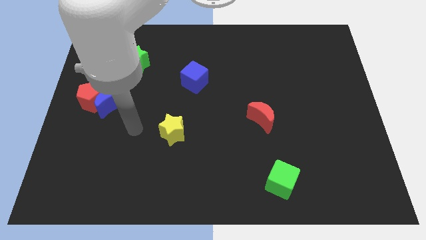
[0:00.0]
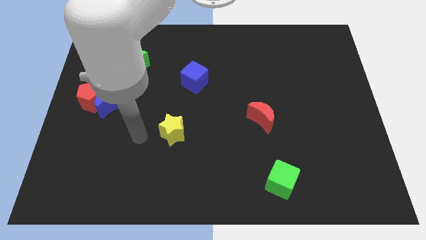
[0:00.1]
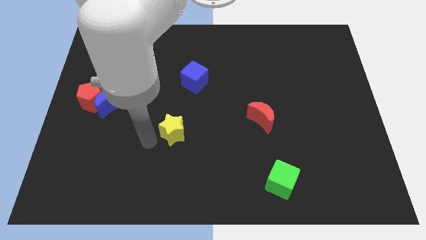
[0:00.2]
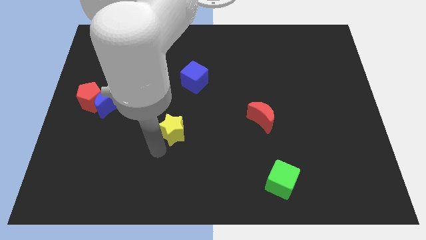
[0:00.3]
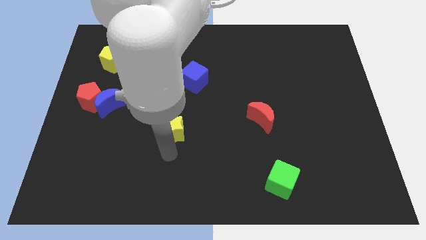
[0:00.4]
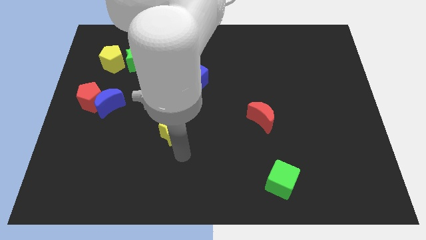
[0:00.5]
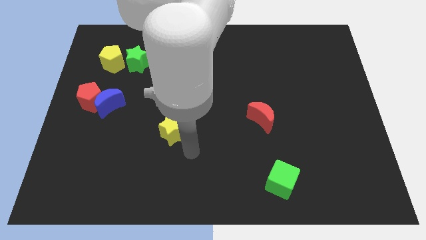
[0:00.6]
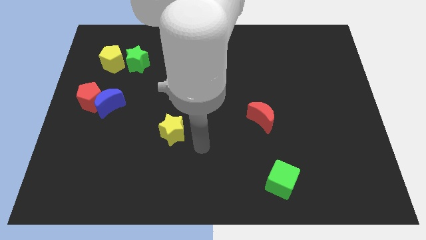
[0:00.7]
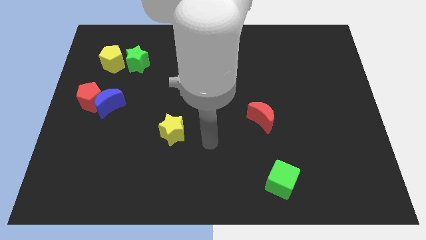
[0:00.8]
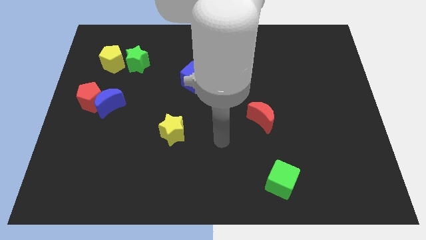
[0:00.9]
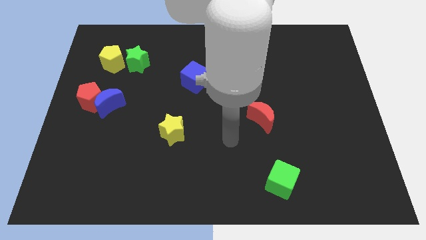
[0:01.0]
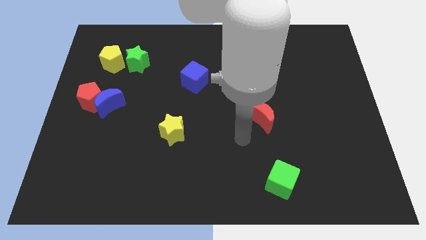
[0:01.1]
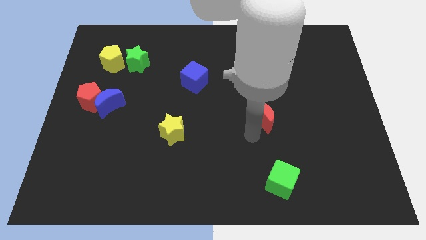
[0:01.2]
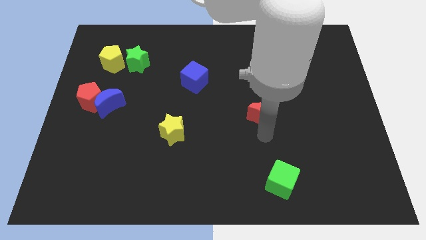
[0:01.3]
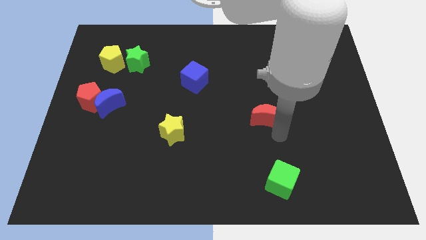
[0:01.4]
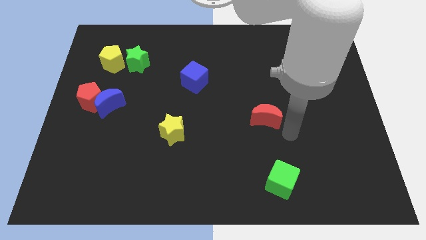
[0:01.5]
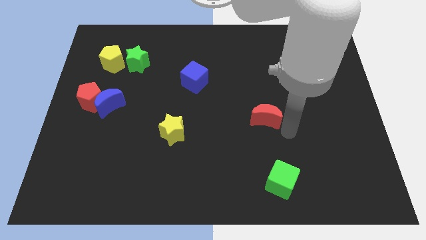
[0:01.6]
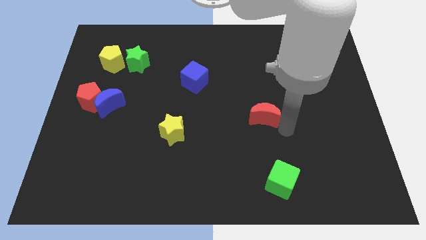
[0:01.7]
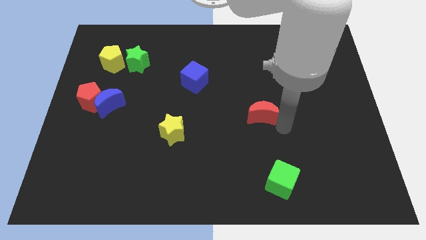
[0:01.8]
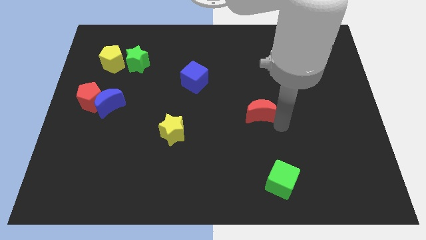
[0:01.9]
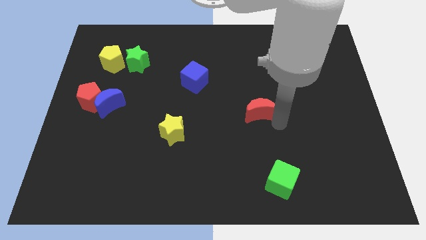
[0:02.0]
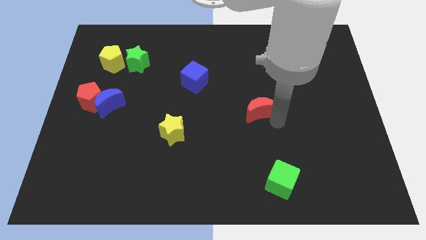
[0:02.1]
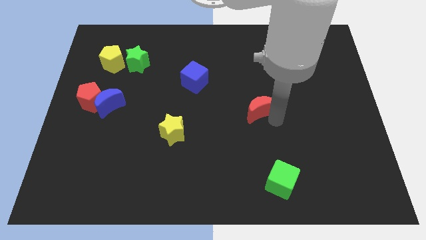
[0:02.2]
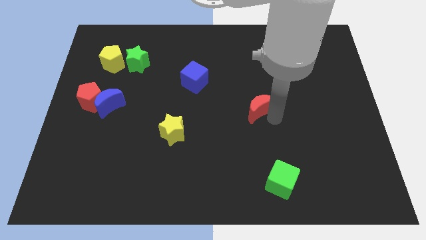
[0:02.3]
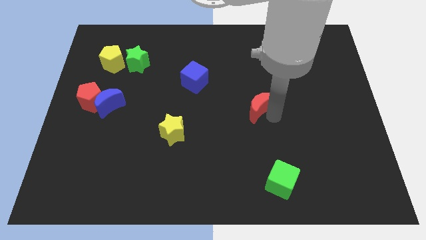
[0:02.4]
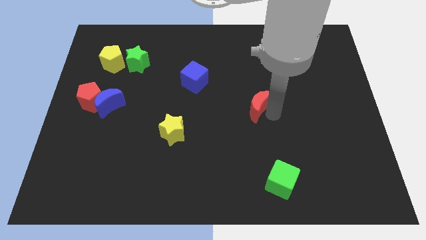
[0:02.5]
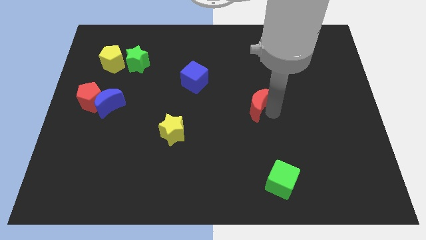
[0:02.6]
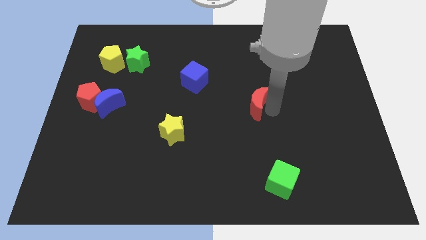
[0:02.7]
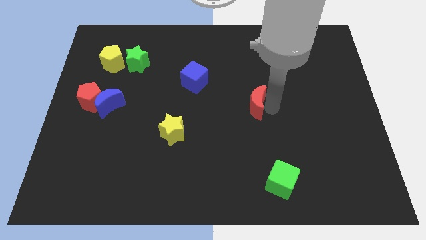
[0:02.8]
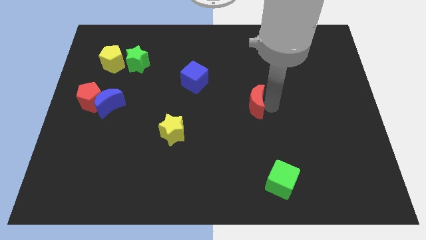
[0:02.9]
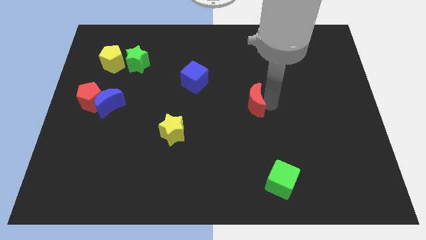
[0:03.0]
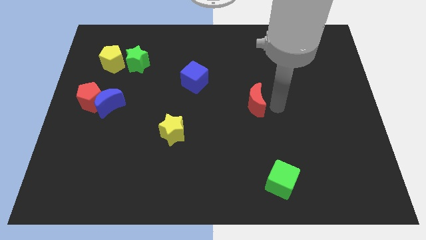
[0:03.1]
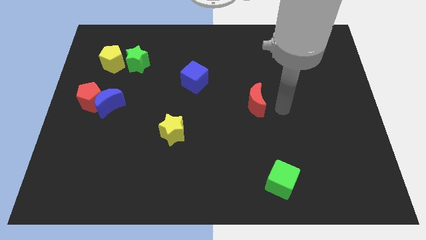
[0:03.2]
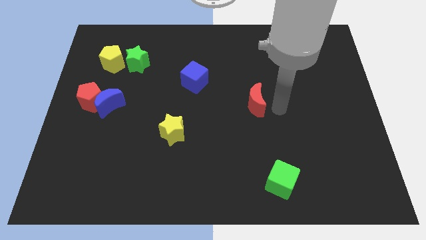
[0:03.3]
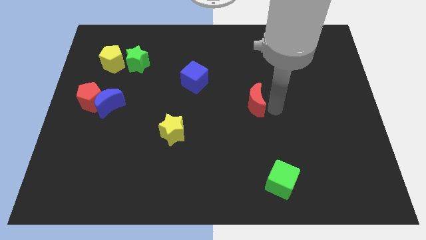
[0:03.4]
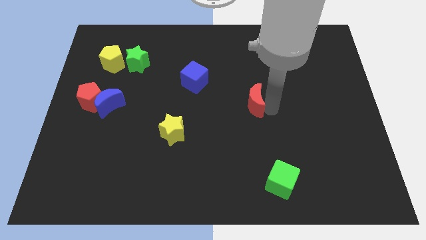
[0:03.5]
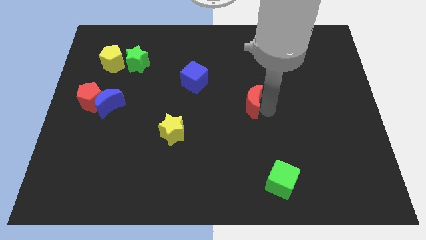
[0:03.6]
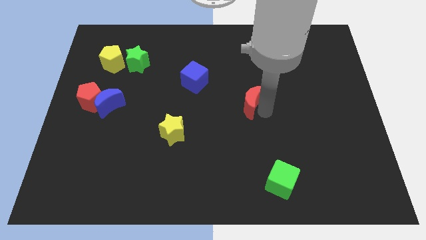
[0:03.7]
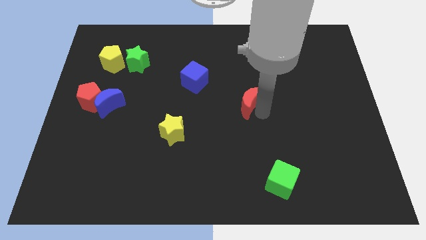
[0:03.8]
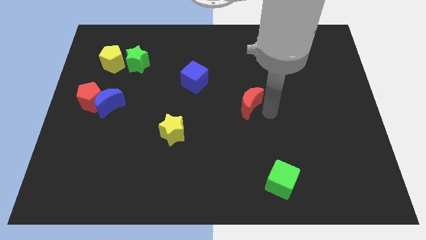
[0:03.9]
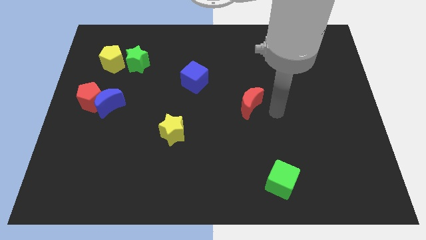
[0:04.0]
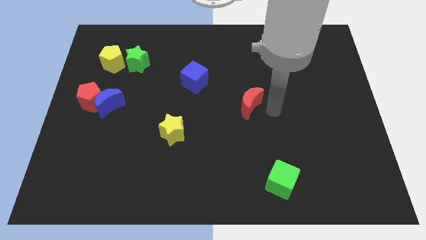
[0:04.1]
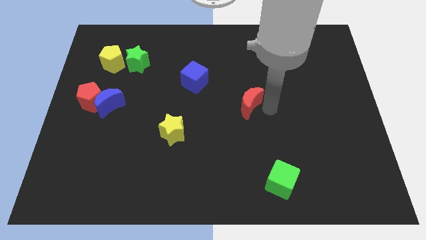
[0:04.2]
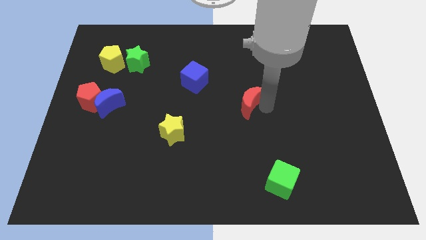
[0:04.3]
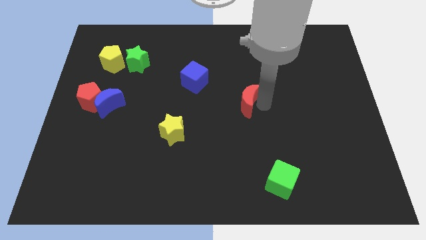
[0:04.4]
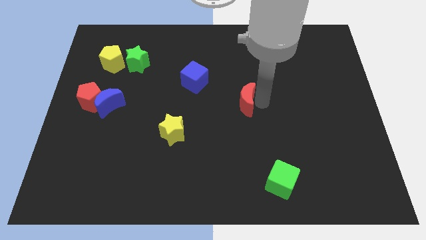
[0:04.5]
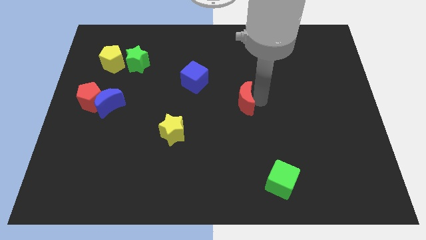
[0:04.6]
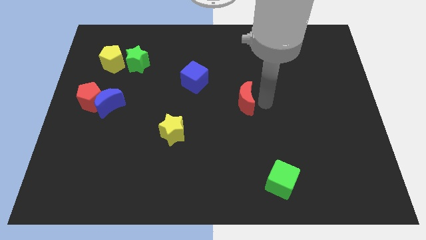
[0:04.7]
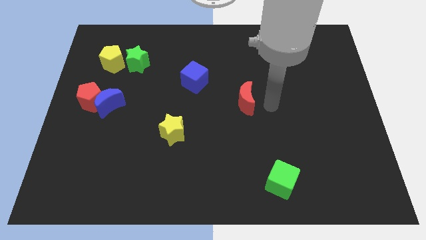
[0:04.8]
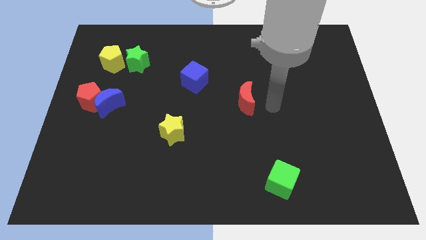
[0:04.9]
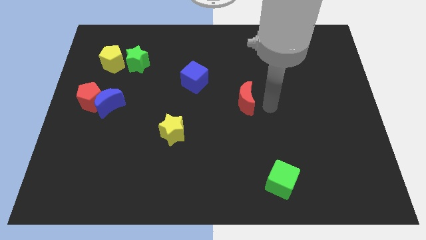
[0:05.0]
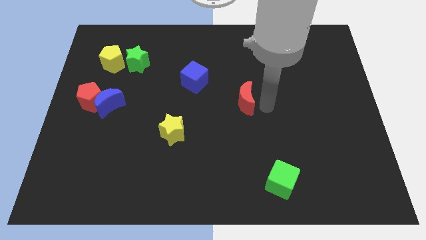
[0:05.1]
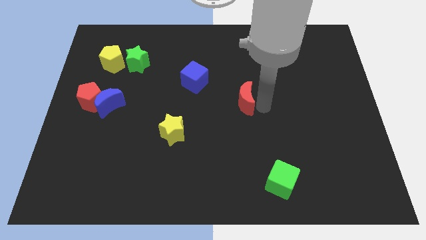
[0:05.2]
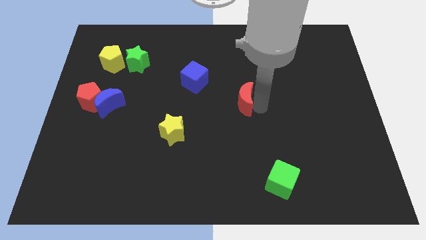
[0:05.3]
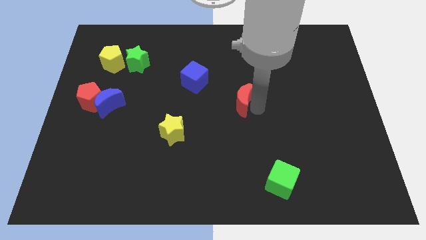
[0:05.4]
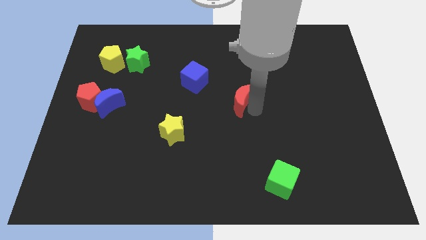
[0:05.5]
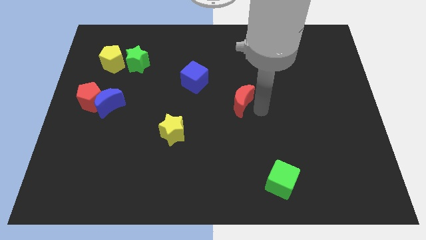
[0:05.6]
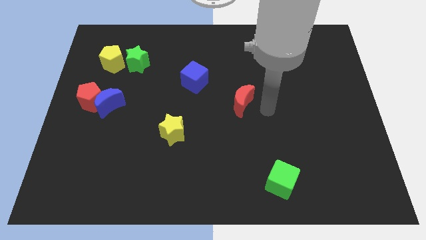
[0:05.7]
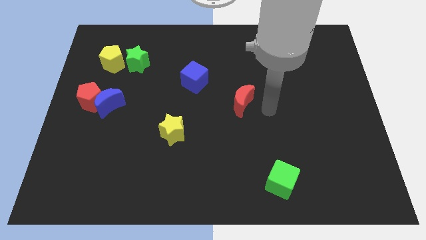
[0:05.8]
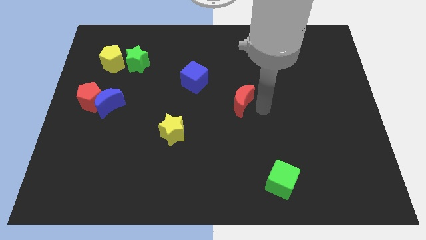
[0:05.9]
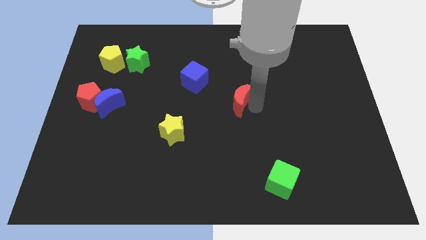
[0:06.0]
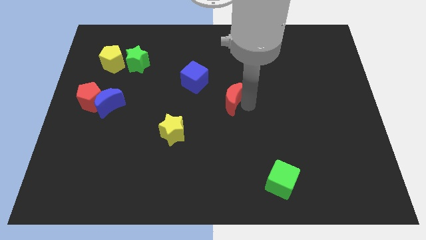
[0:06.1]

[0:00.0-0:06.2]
put the red moon to the bottom right of the blue cube

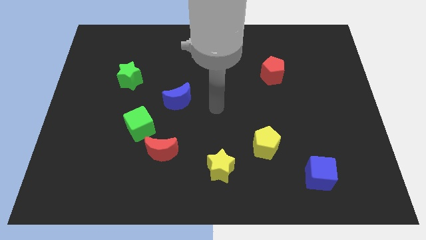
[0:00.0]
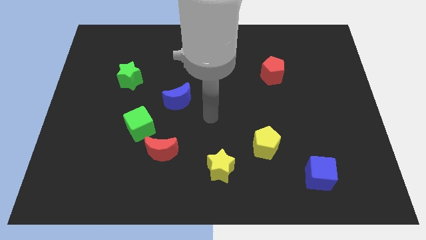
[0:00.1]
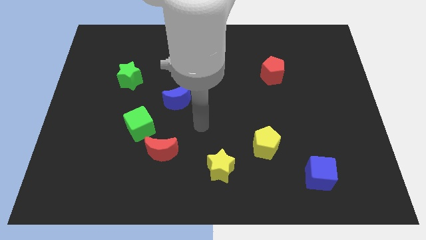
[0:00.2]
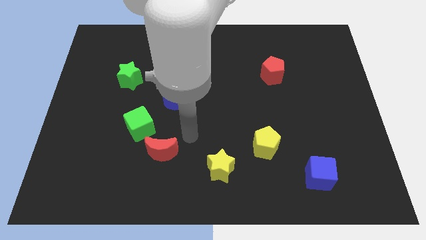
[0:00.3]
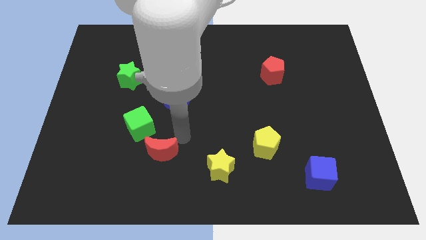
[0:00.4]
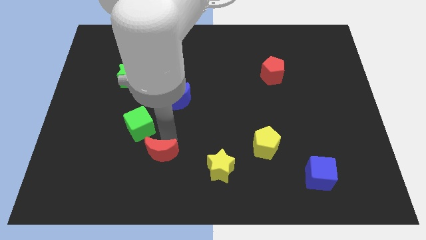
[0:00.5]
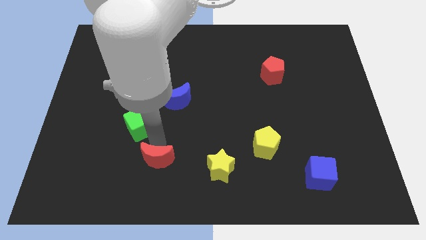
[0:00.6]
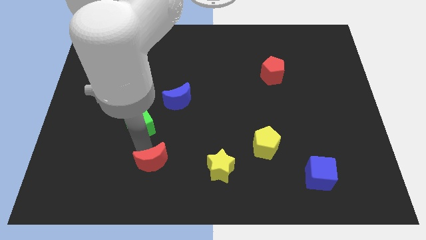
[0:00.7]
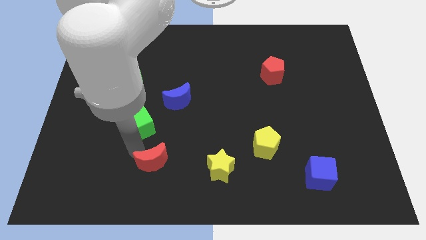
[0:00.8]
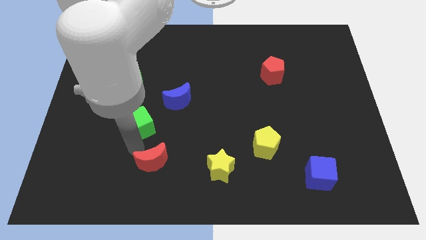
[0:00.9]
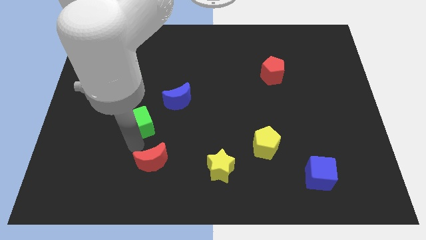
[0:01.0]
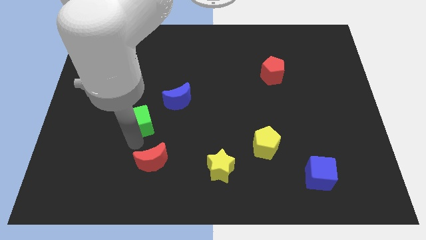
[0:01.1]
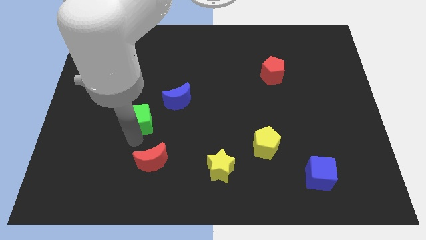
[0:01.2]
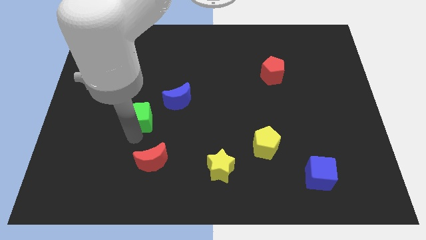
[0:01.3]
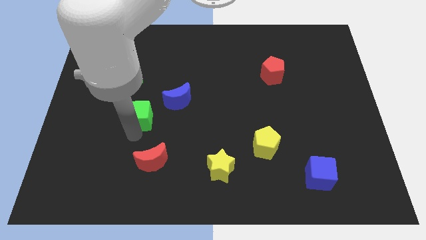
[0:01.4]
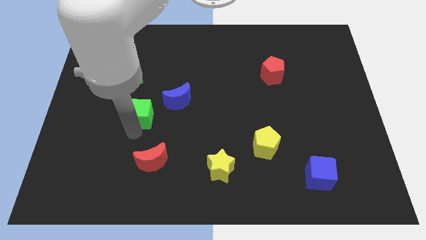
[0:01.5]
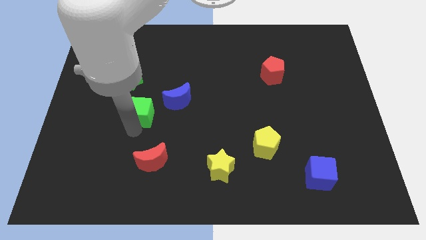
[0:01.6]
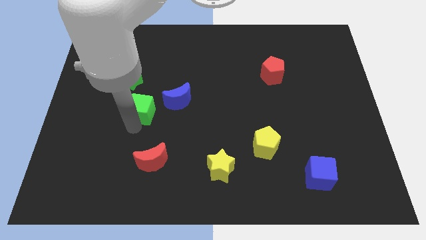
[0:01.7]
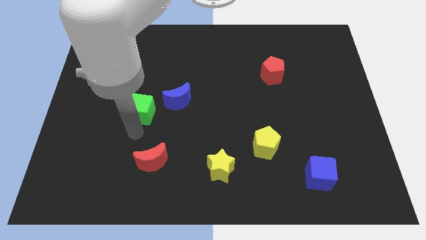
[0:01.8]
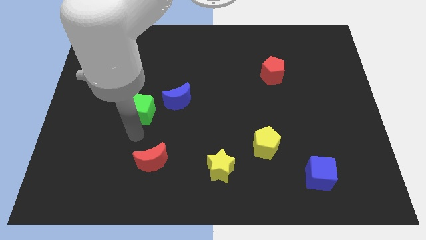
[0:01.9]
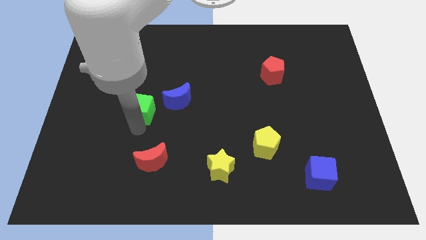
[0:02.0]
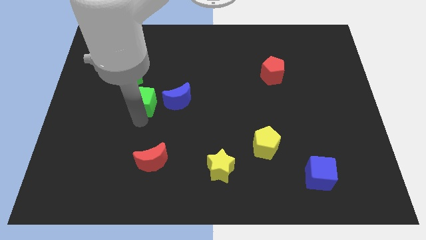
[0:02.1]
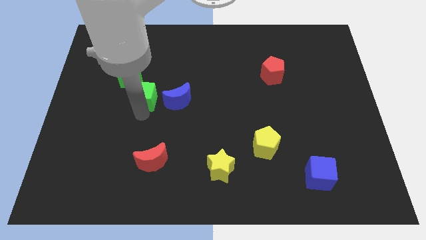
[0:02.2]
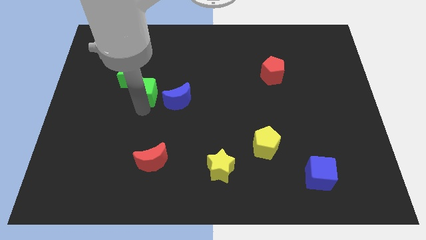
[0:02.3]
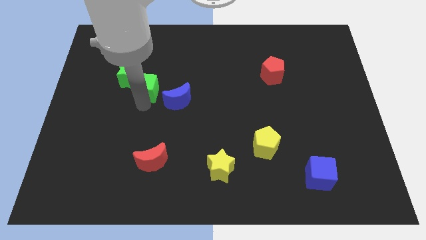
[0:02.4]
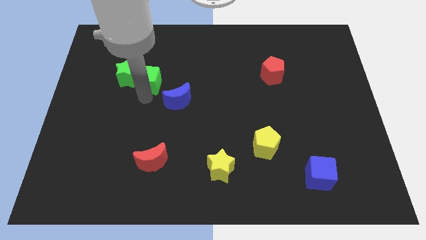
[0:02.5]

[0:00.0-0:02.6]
put the green cube to the top right side of the green star
